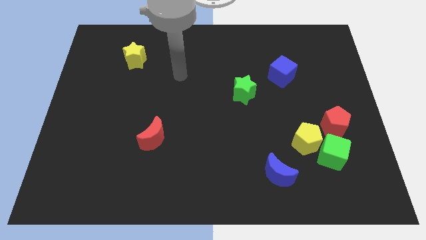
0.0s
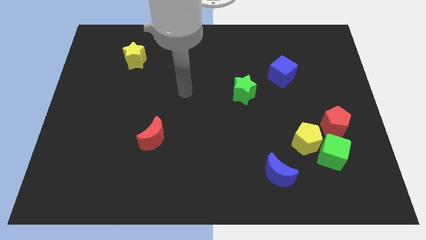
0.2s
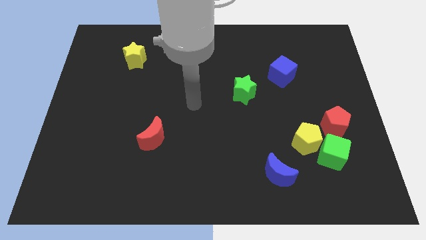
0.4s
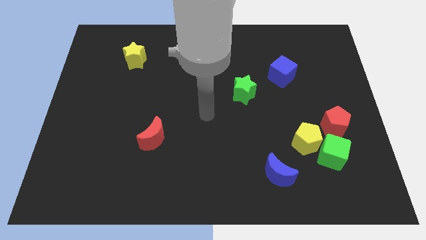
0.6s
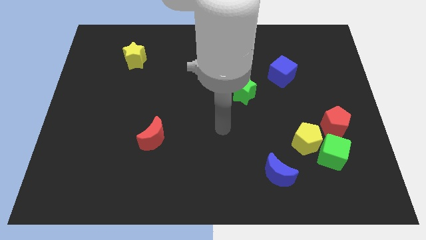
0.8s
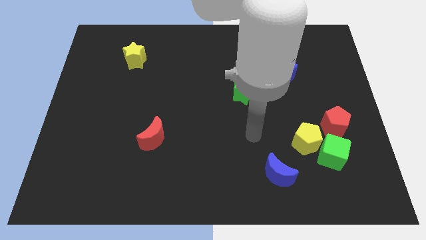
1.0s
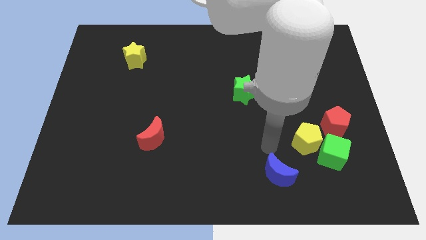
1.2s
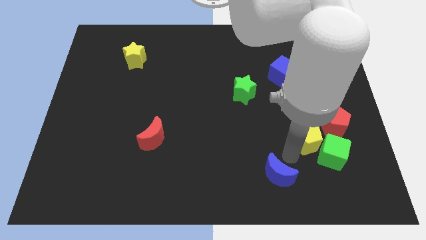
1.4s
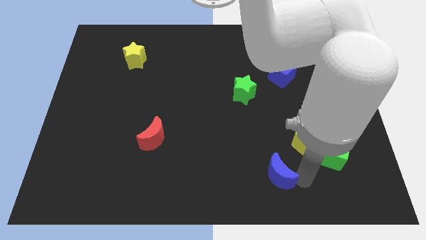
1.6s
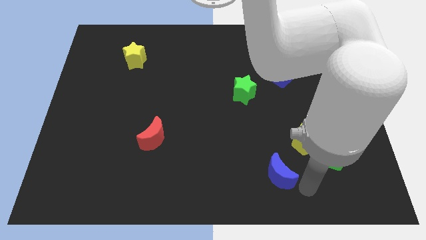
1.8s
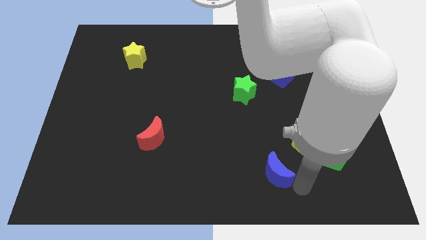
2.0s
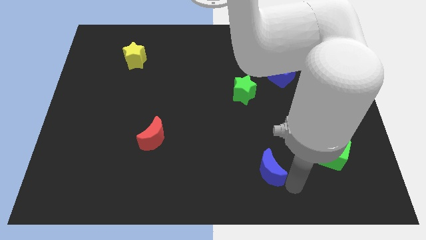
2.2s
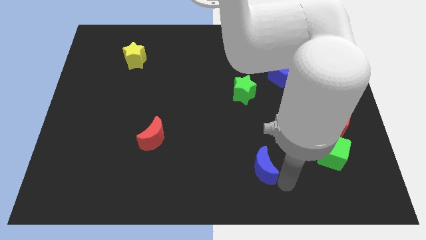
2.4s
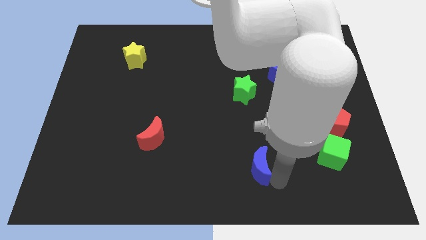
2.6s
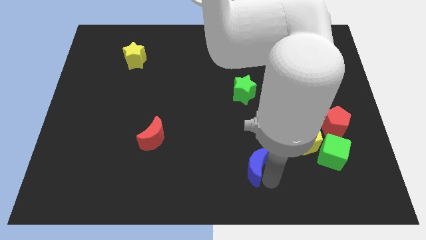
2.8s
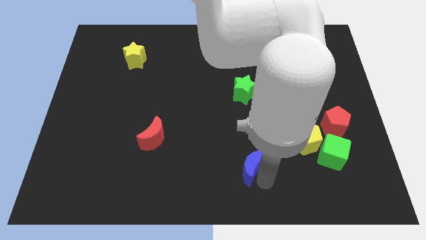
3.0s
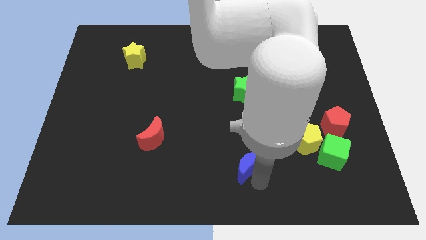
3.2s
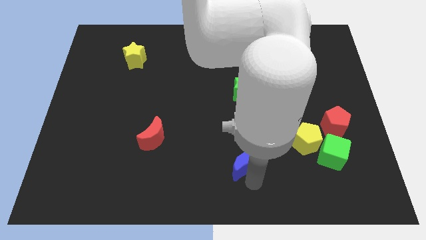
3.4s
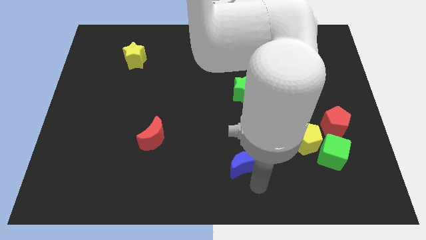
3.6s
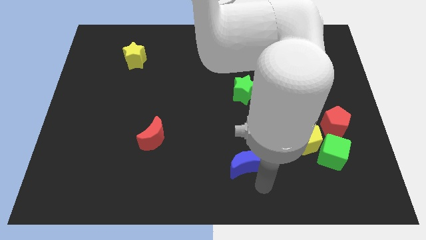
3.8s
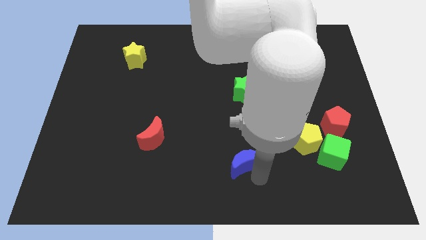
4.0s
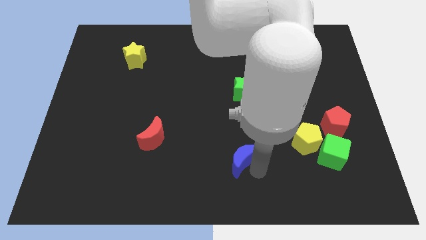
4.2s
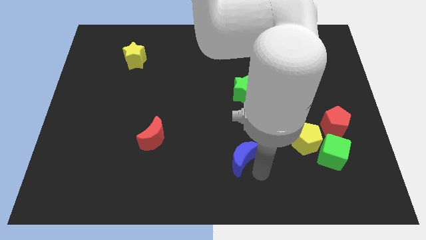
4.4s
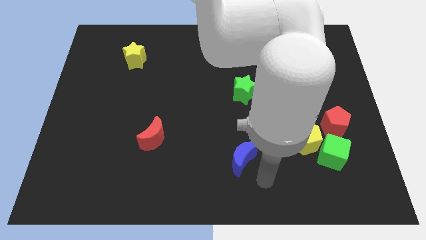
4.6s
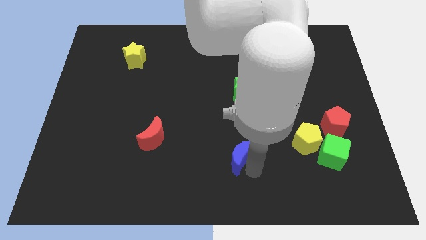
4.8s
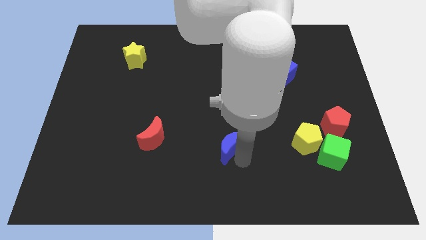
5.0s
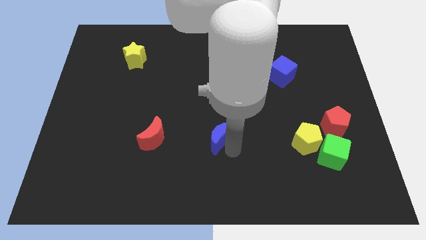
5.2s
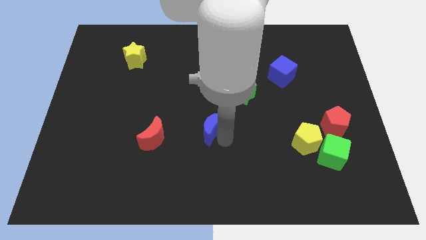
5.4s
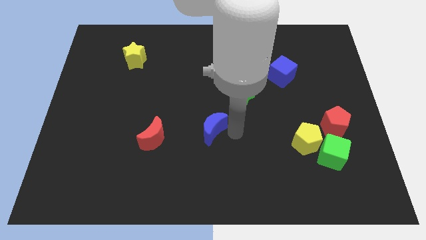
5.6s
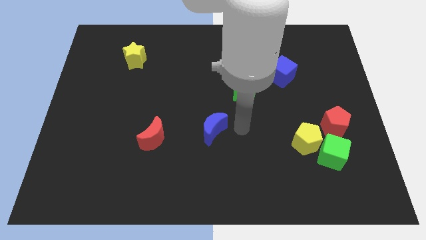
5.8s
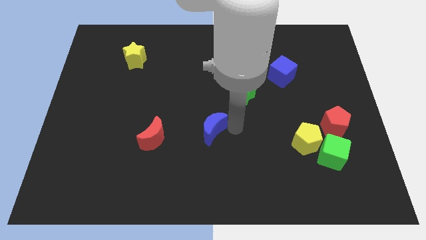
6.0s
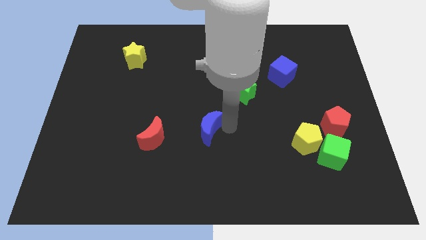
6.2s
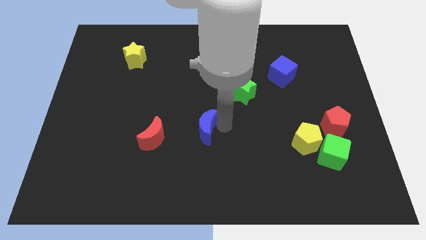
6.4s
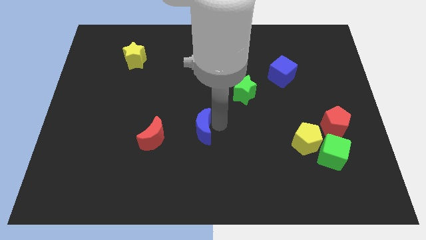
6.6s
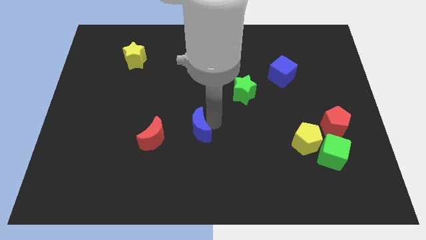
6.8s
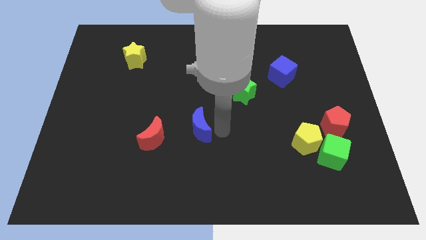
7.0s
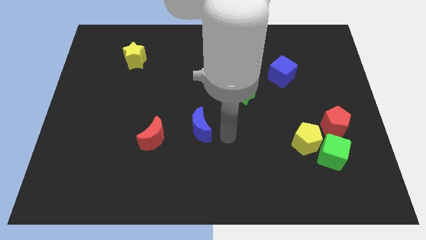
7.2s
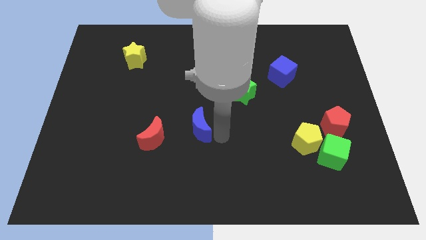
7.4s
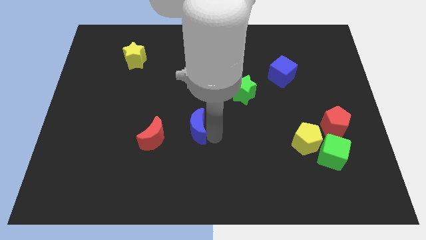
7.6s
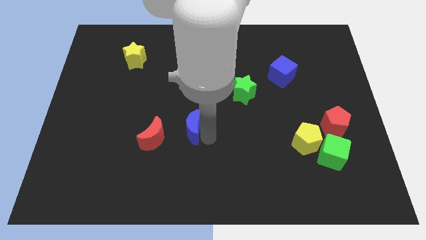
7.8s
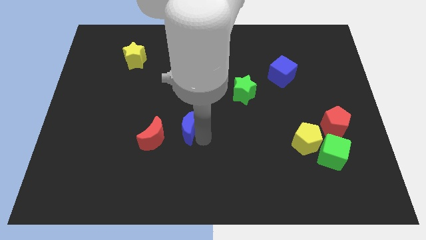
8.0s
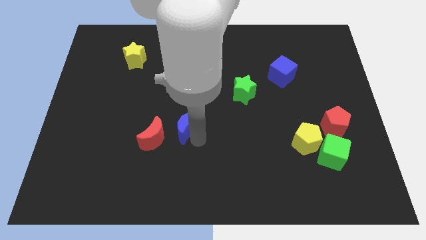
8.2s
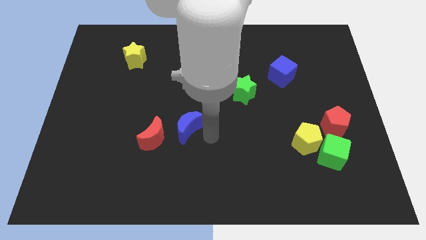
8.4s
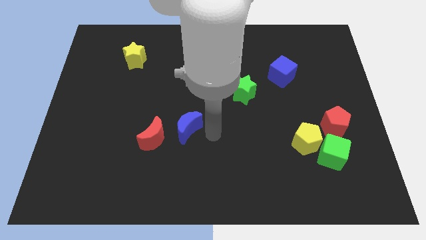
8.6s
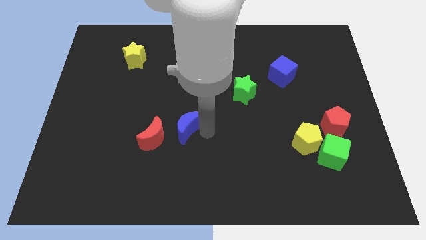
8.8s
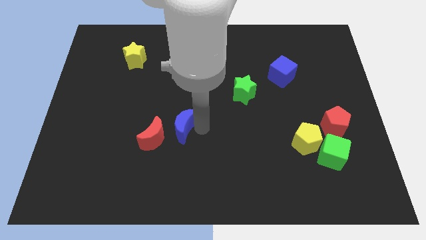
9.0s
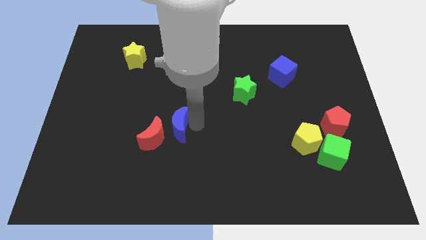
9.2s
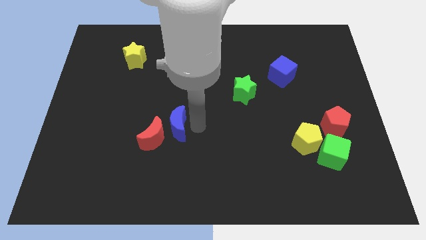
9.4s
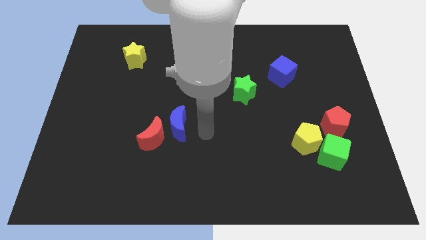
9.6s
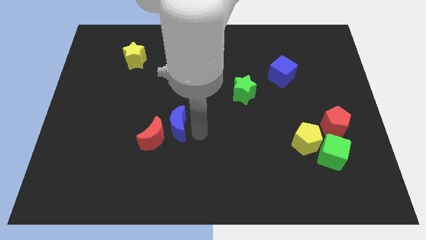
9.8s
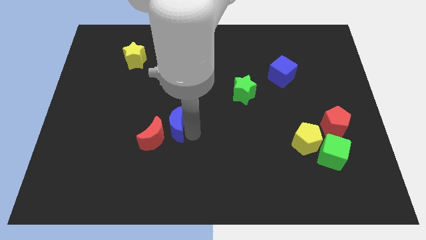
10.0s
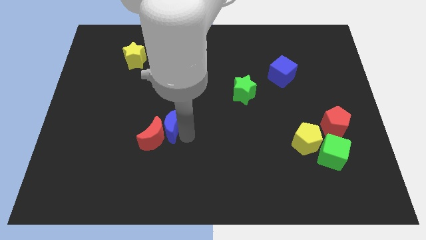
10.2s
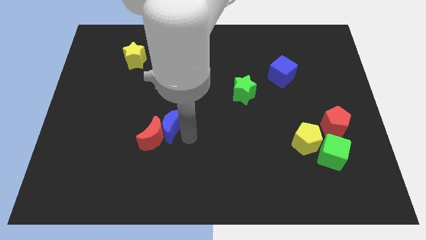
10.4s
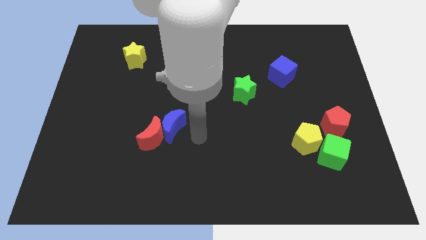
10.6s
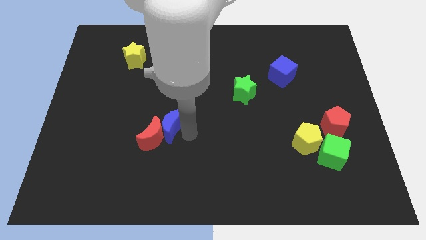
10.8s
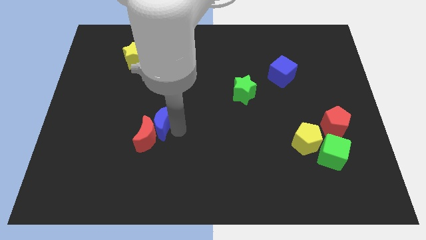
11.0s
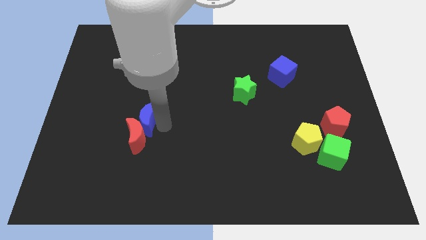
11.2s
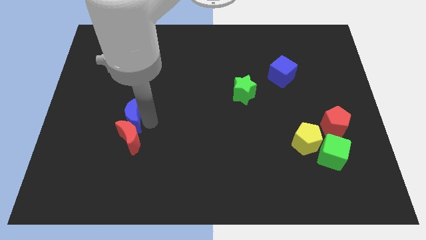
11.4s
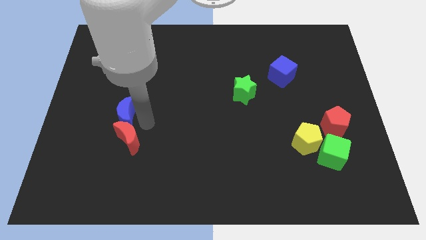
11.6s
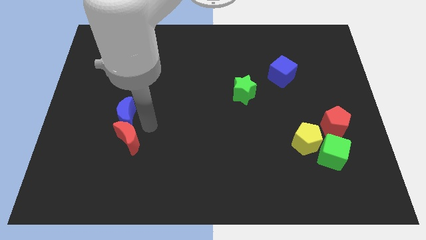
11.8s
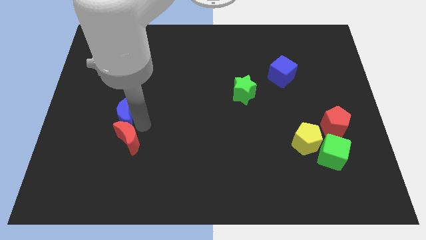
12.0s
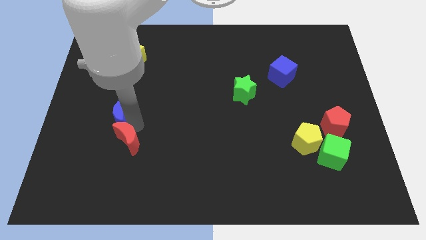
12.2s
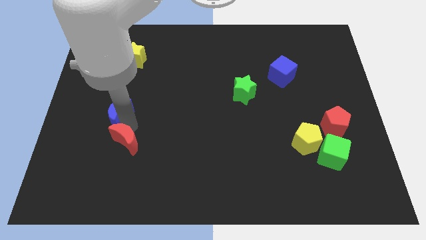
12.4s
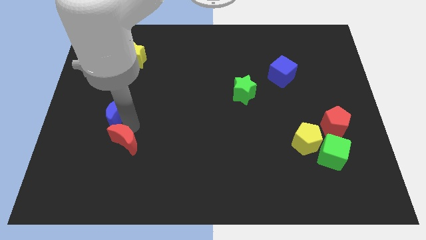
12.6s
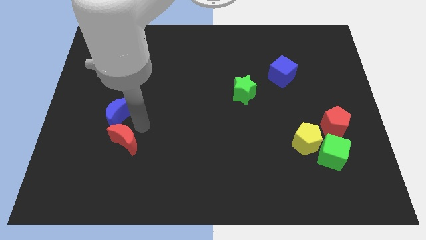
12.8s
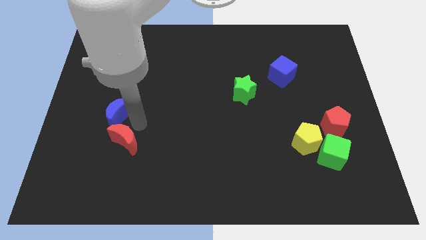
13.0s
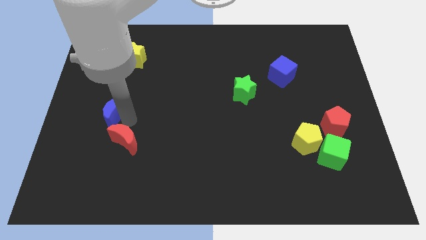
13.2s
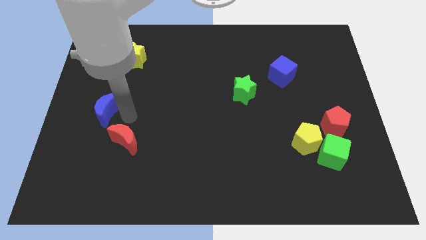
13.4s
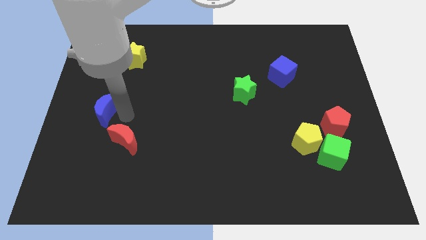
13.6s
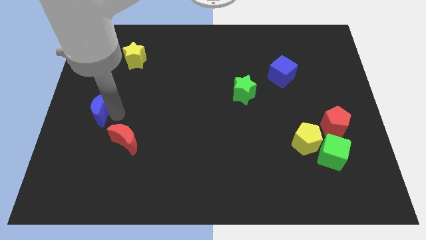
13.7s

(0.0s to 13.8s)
push the blue moon to the left side of the board

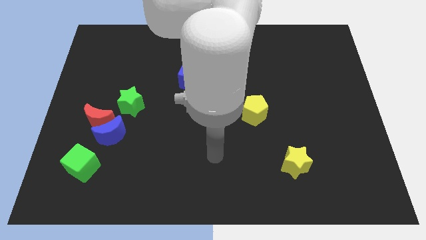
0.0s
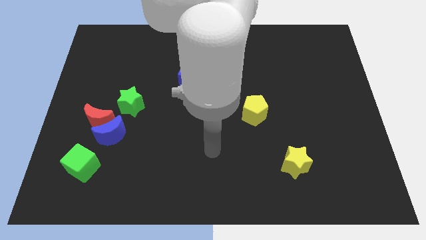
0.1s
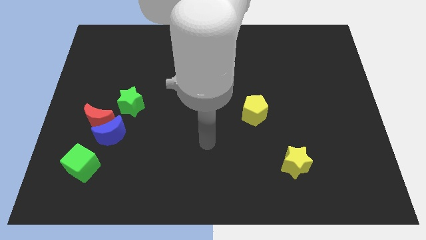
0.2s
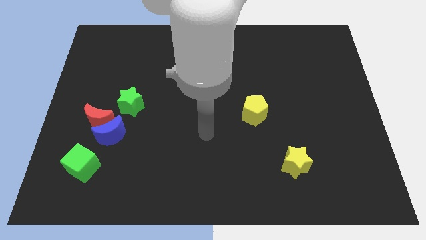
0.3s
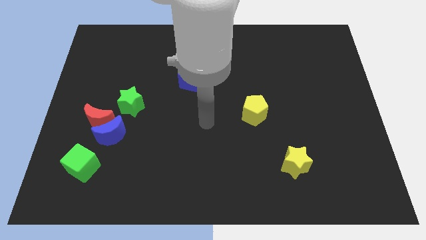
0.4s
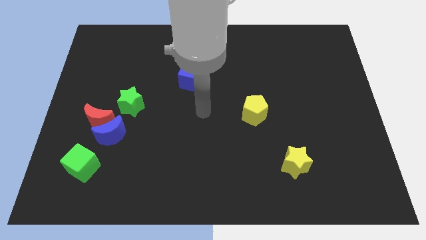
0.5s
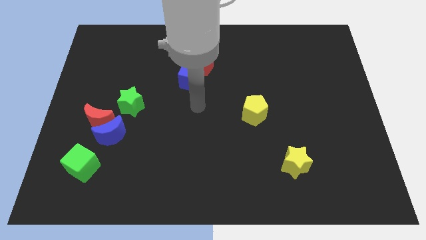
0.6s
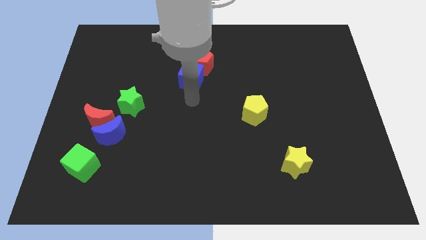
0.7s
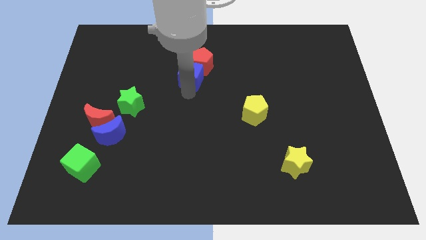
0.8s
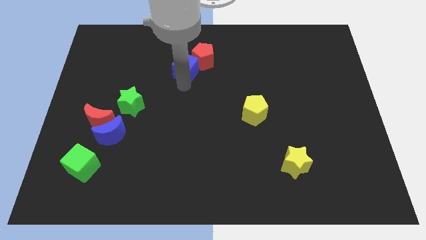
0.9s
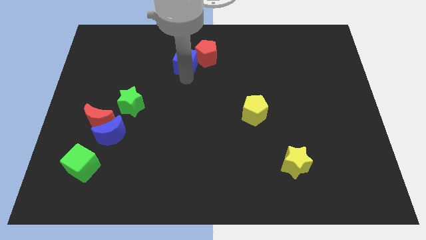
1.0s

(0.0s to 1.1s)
put the red pentagon to the top
